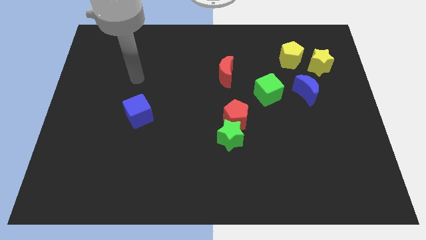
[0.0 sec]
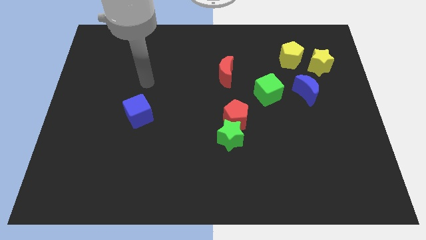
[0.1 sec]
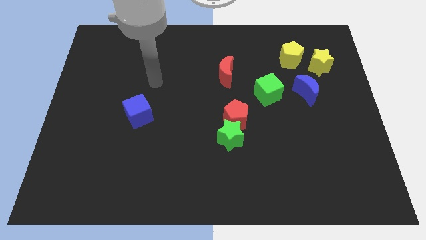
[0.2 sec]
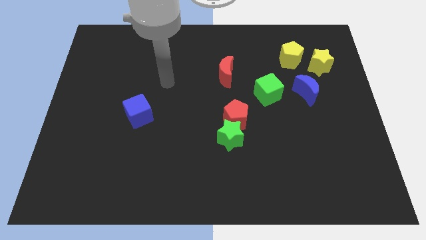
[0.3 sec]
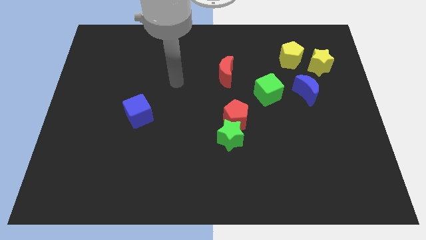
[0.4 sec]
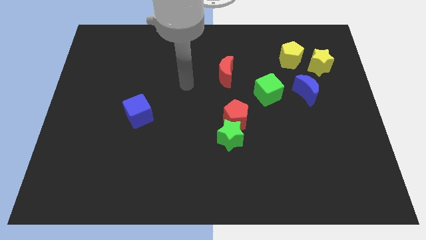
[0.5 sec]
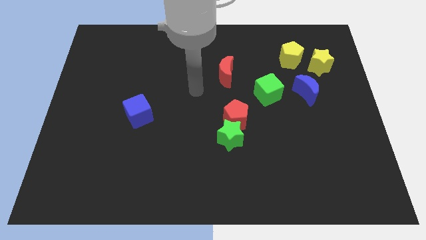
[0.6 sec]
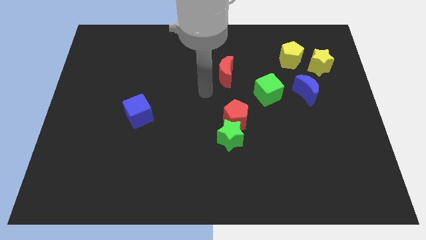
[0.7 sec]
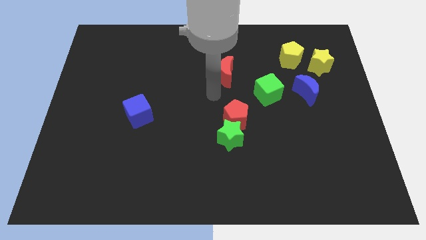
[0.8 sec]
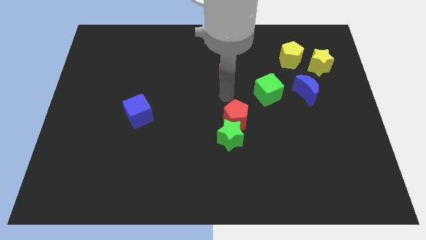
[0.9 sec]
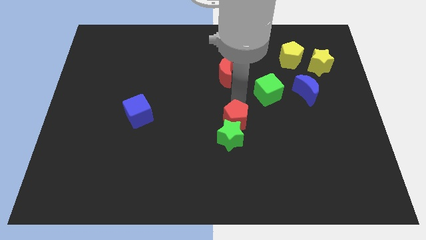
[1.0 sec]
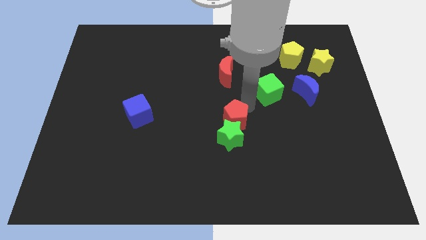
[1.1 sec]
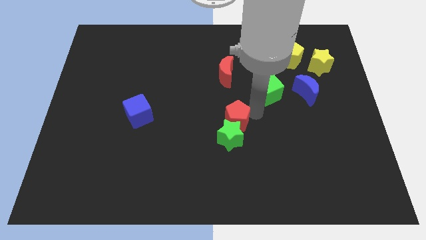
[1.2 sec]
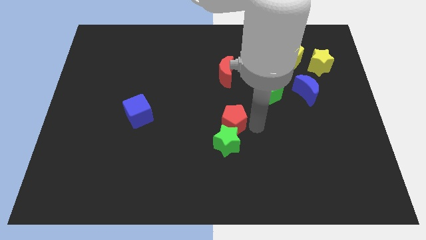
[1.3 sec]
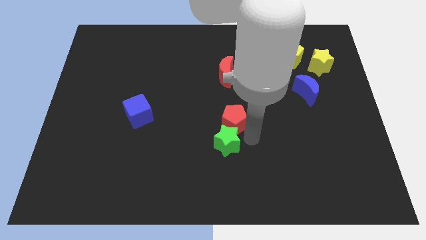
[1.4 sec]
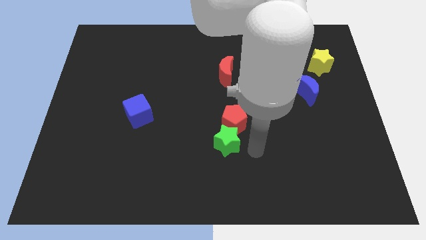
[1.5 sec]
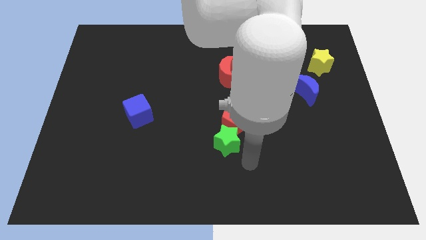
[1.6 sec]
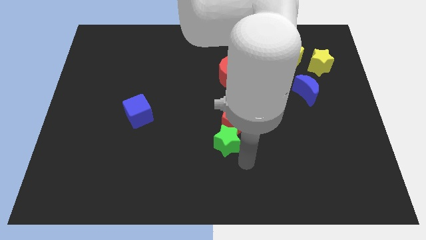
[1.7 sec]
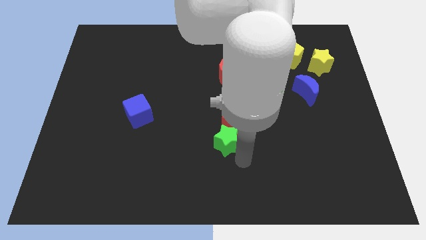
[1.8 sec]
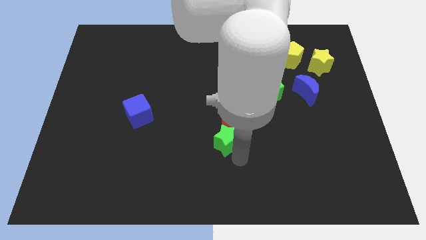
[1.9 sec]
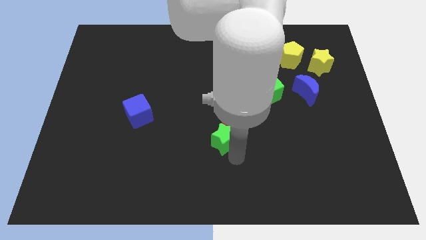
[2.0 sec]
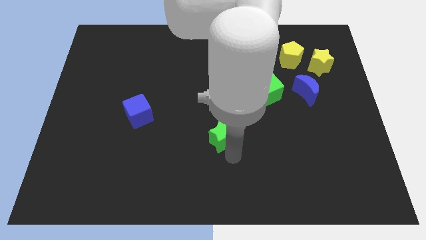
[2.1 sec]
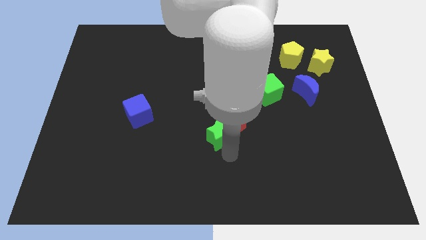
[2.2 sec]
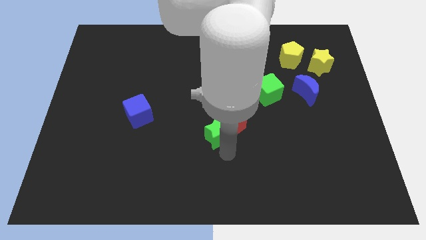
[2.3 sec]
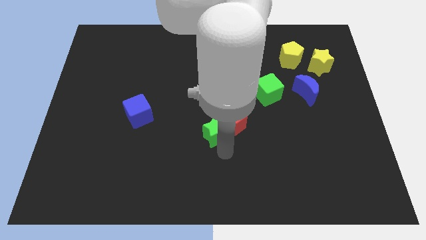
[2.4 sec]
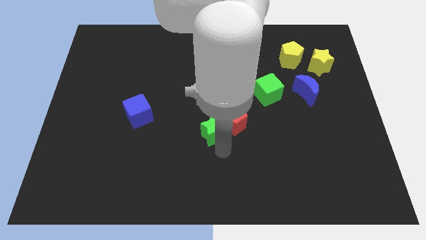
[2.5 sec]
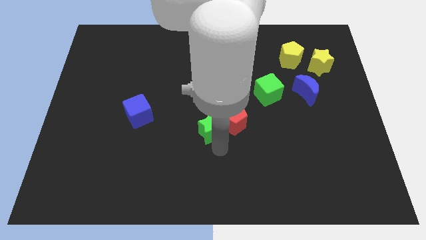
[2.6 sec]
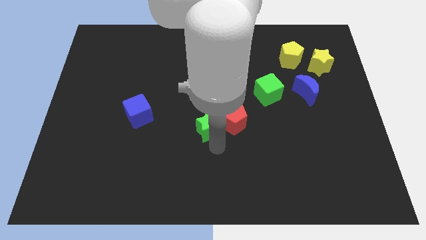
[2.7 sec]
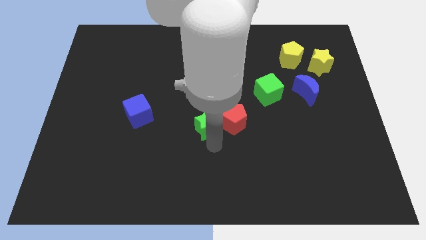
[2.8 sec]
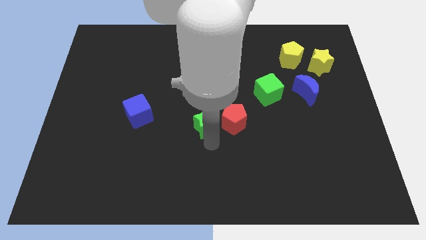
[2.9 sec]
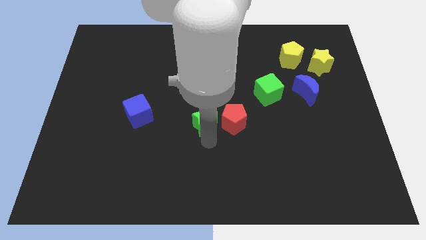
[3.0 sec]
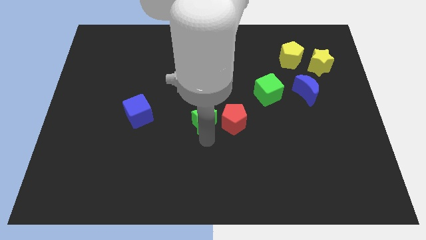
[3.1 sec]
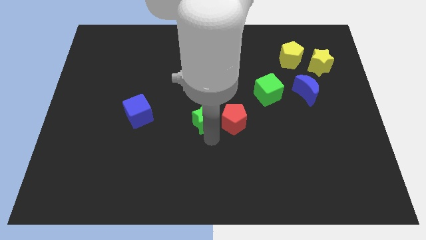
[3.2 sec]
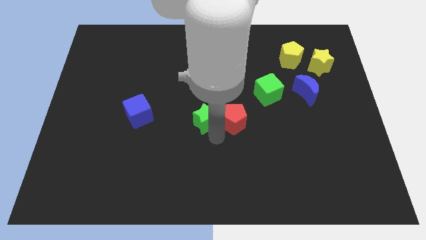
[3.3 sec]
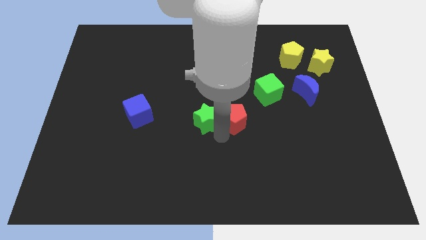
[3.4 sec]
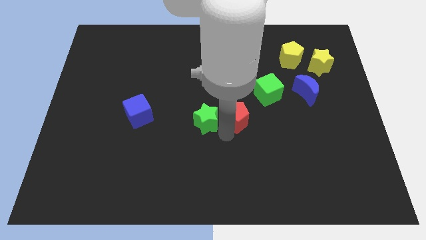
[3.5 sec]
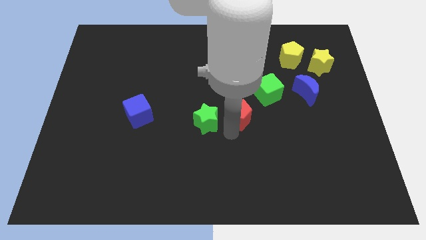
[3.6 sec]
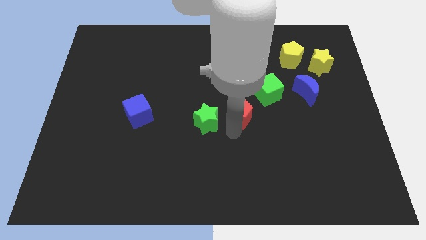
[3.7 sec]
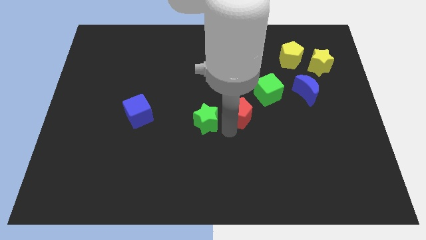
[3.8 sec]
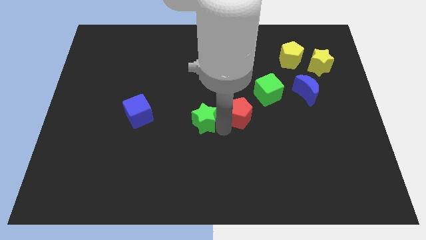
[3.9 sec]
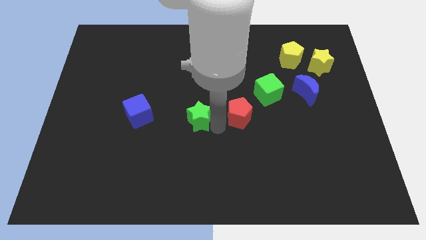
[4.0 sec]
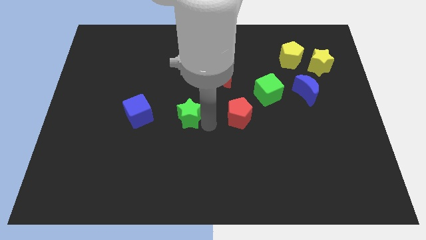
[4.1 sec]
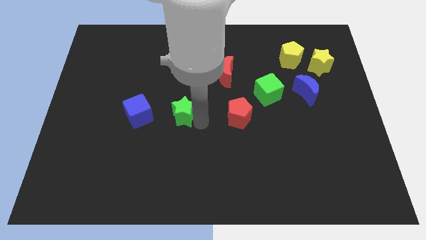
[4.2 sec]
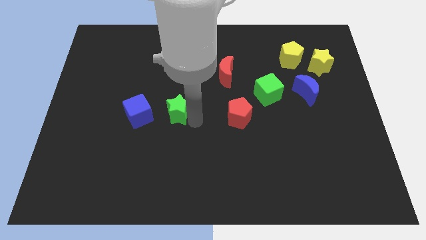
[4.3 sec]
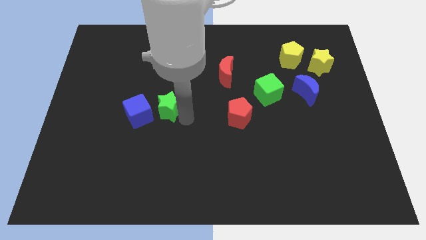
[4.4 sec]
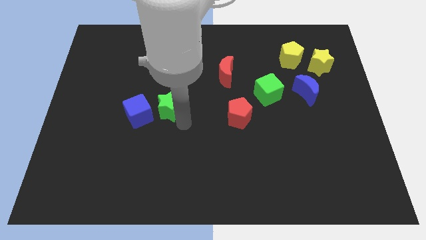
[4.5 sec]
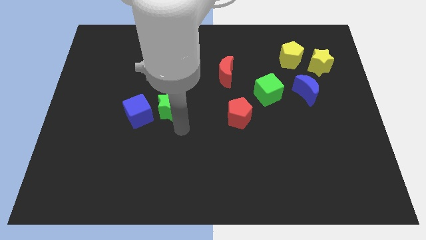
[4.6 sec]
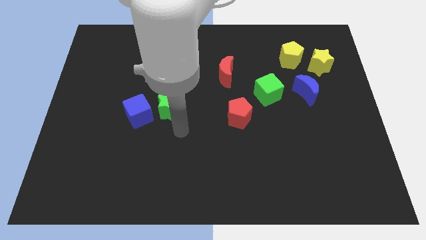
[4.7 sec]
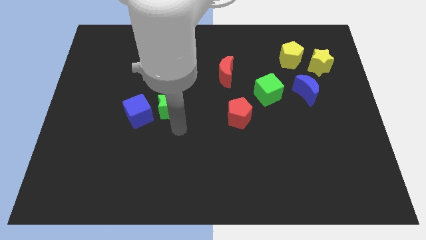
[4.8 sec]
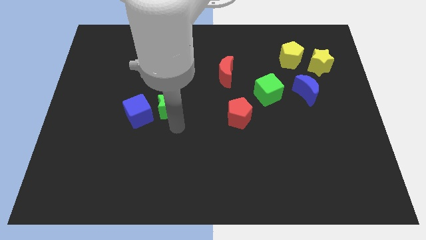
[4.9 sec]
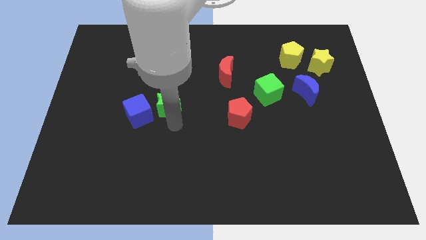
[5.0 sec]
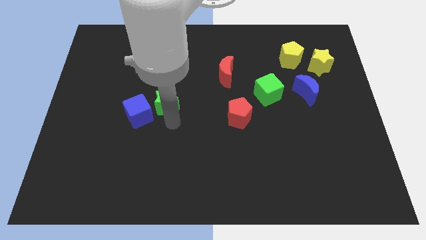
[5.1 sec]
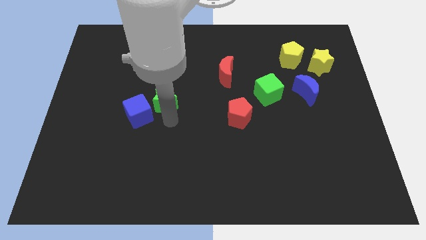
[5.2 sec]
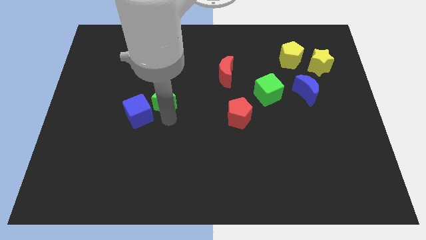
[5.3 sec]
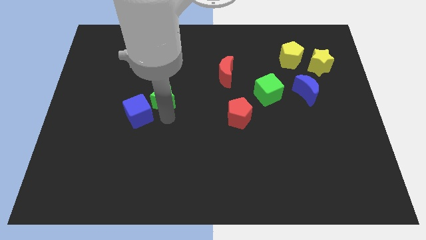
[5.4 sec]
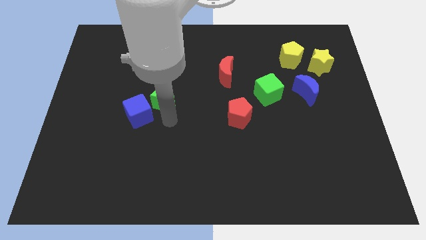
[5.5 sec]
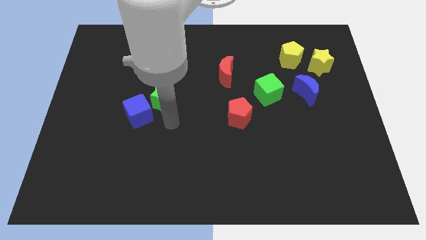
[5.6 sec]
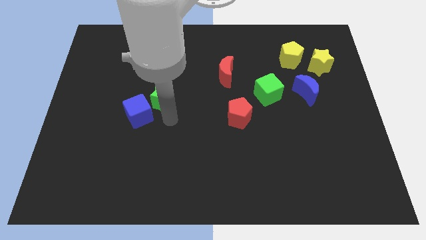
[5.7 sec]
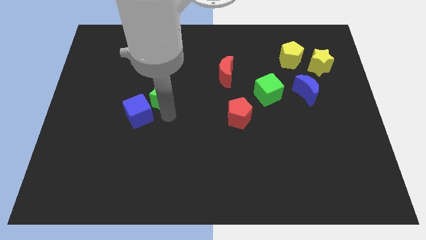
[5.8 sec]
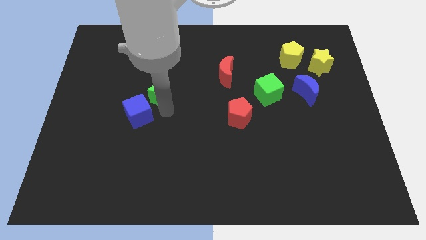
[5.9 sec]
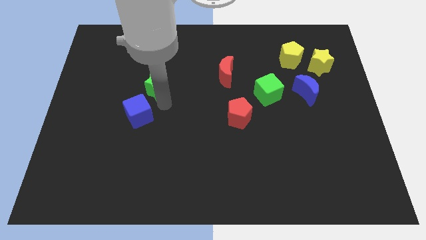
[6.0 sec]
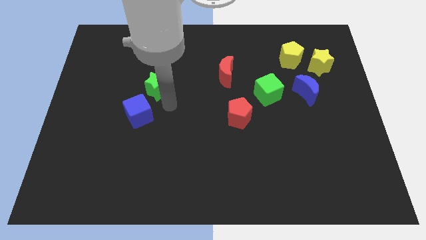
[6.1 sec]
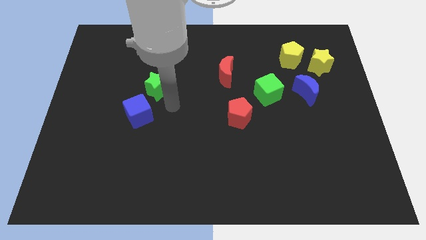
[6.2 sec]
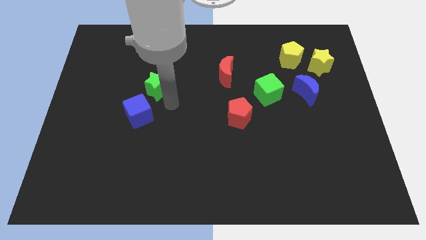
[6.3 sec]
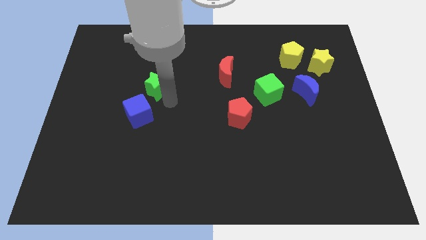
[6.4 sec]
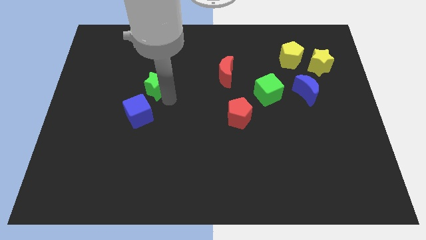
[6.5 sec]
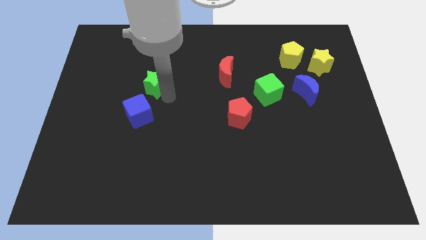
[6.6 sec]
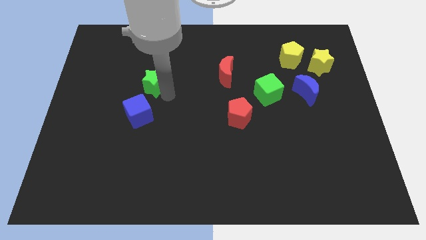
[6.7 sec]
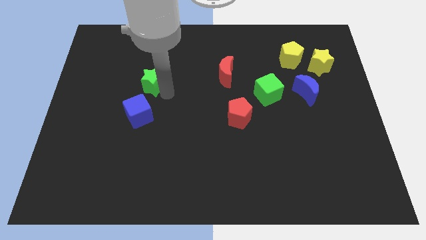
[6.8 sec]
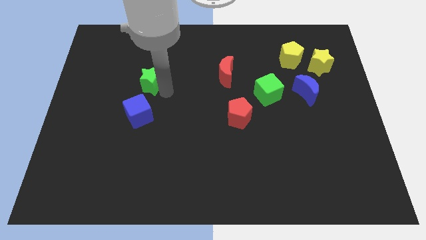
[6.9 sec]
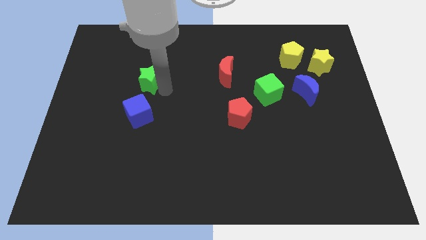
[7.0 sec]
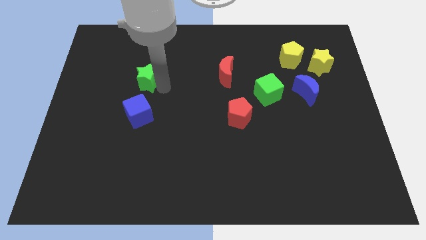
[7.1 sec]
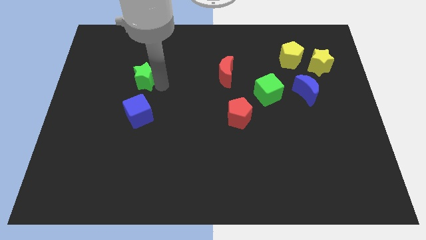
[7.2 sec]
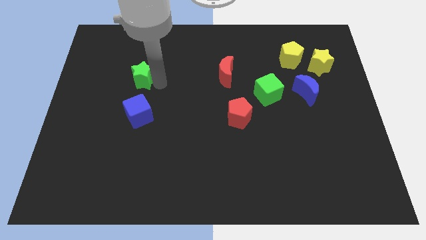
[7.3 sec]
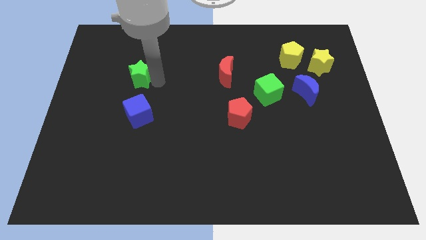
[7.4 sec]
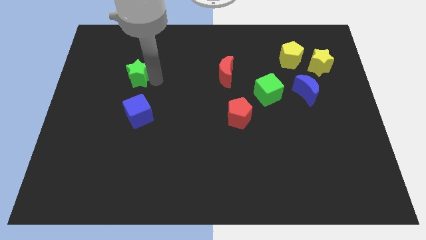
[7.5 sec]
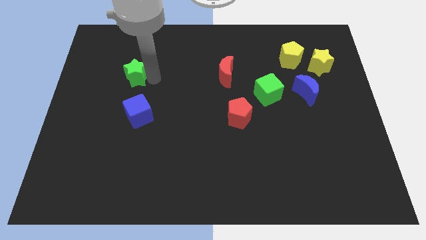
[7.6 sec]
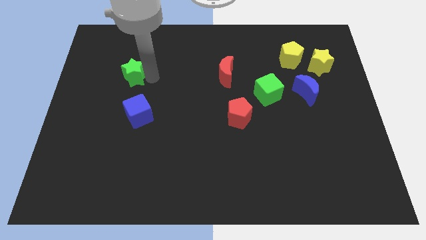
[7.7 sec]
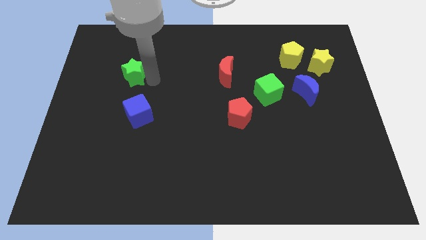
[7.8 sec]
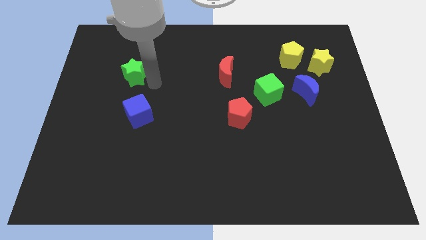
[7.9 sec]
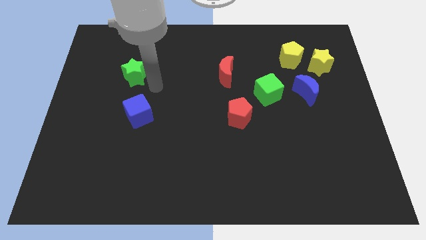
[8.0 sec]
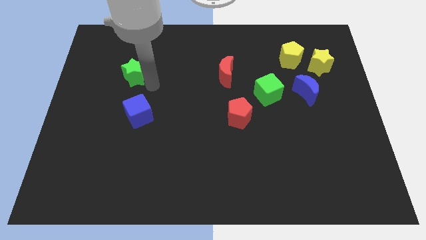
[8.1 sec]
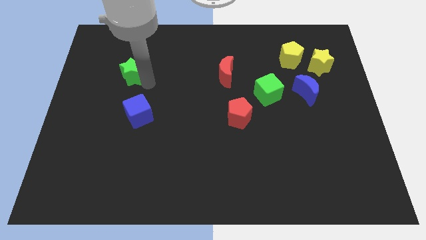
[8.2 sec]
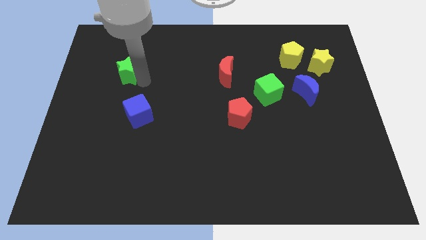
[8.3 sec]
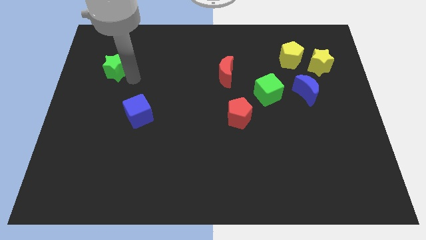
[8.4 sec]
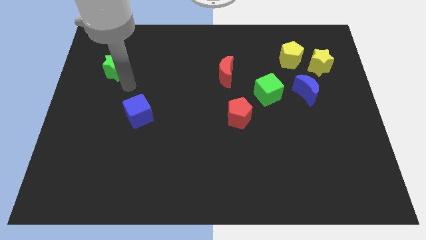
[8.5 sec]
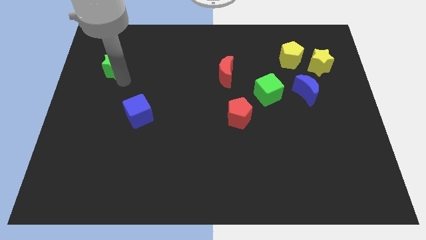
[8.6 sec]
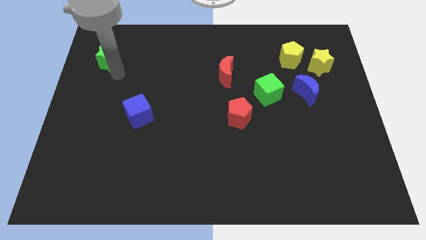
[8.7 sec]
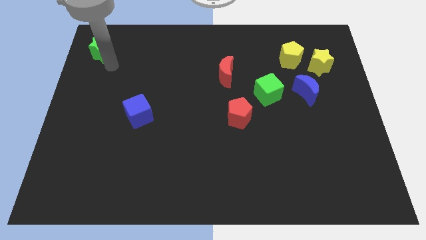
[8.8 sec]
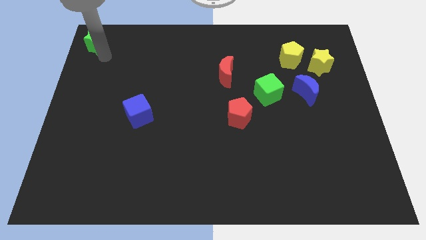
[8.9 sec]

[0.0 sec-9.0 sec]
move the green star to the top left corner
